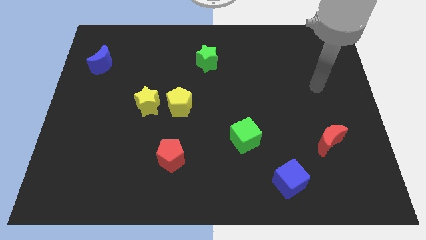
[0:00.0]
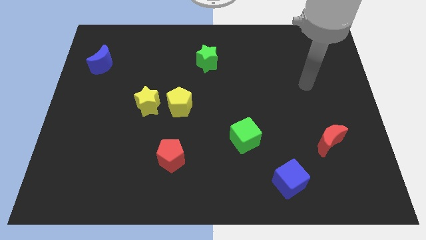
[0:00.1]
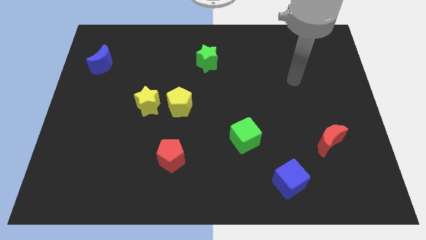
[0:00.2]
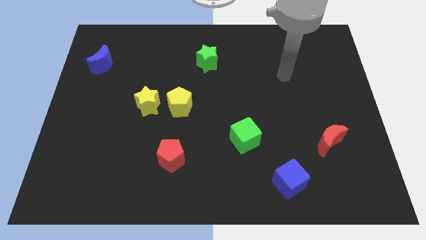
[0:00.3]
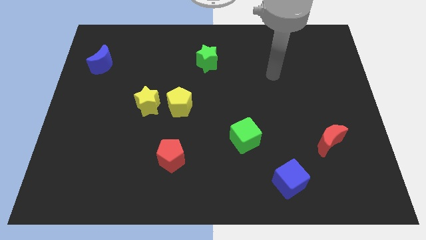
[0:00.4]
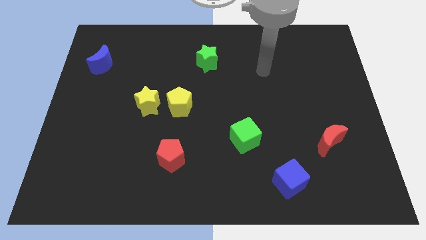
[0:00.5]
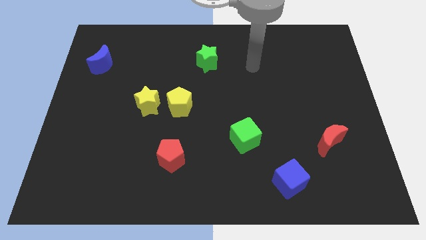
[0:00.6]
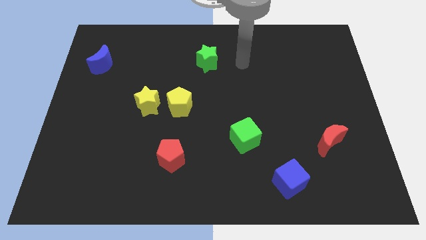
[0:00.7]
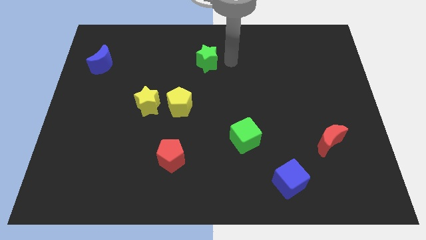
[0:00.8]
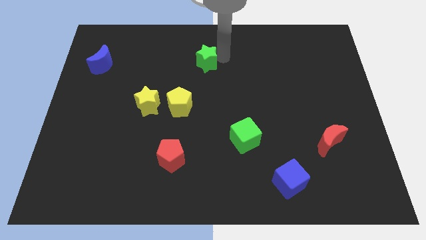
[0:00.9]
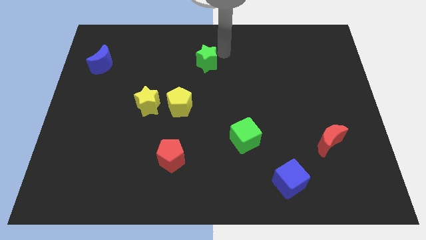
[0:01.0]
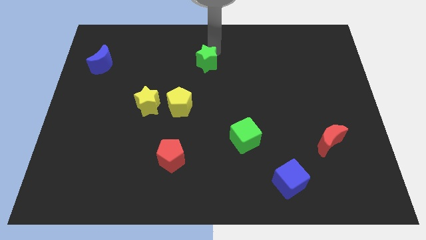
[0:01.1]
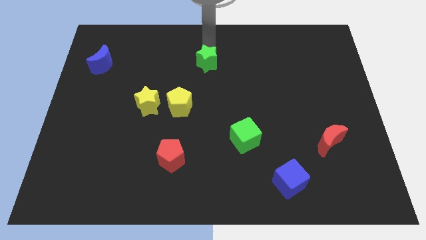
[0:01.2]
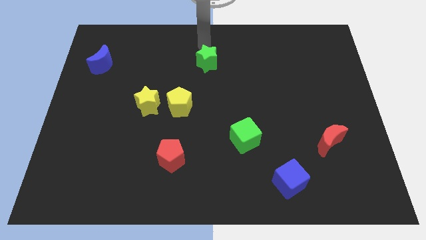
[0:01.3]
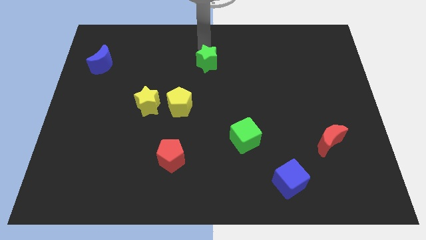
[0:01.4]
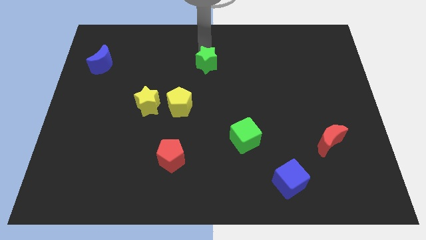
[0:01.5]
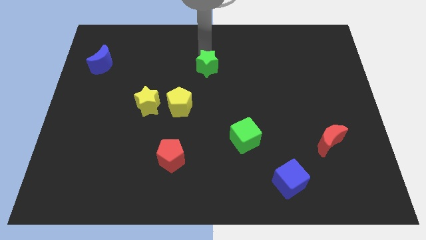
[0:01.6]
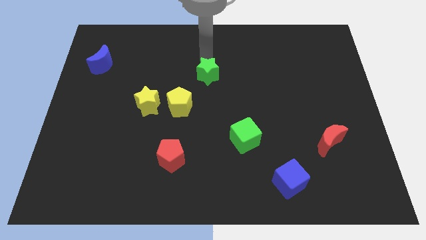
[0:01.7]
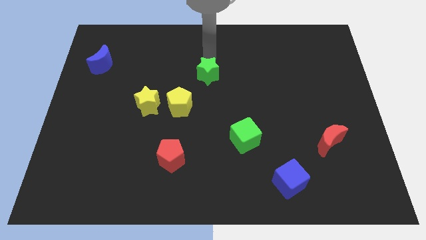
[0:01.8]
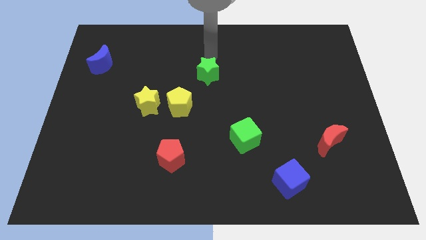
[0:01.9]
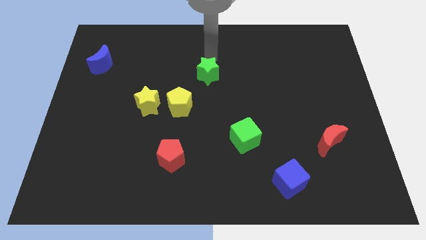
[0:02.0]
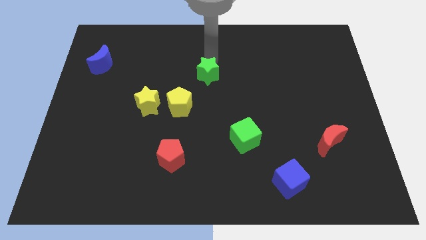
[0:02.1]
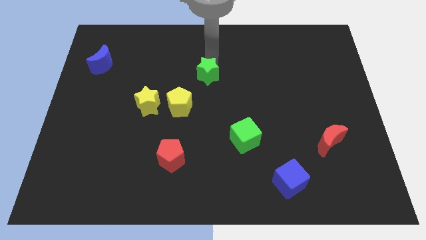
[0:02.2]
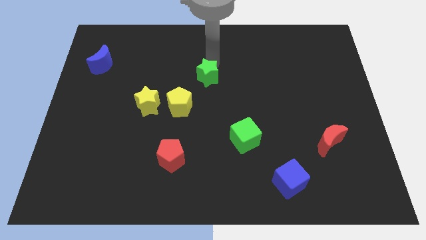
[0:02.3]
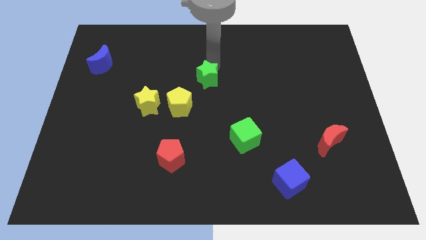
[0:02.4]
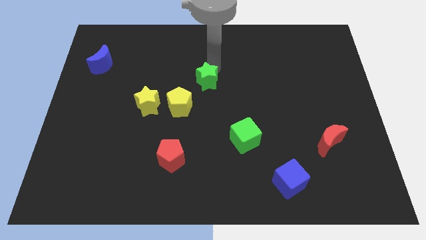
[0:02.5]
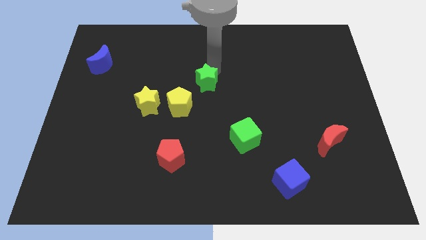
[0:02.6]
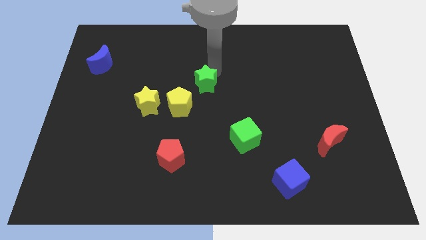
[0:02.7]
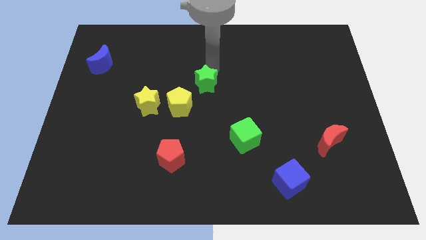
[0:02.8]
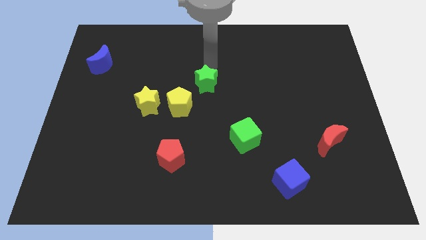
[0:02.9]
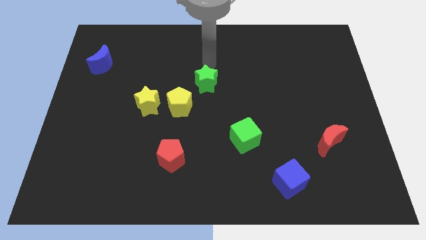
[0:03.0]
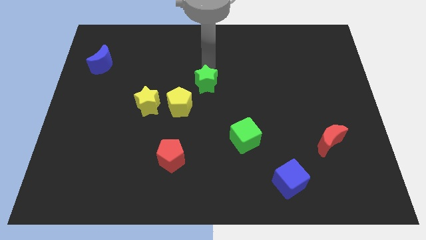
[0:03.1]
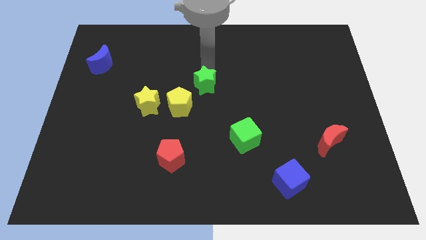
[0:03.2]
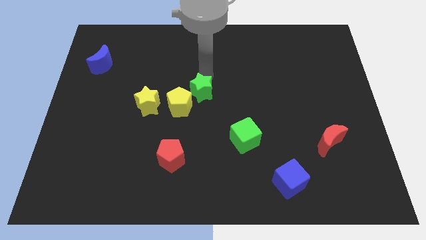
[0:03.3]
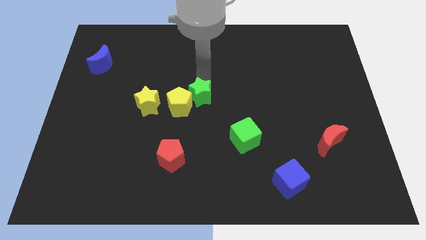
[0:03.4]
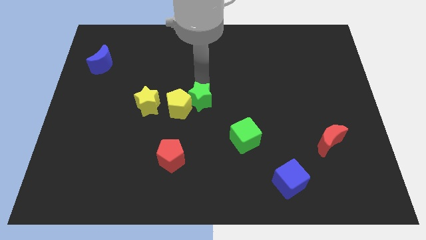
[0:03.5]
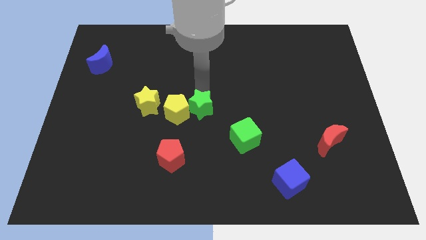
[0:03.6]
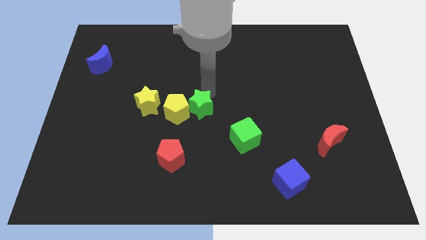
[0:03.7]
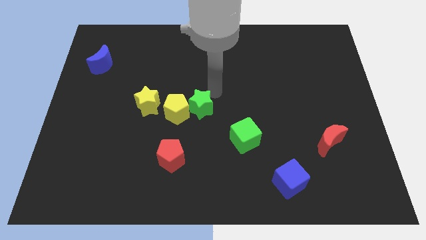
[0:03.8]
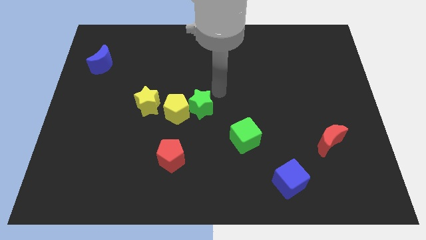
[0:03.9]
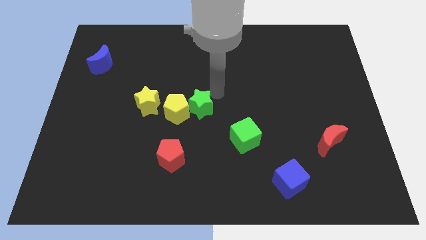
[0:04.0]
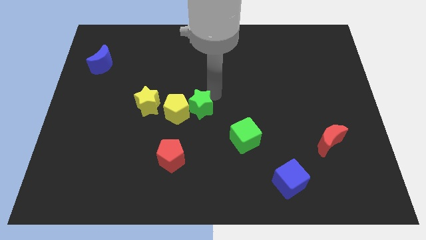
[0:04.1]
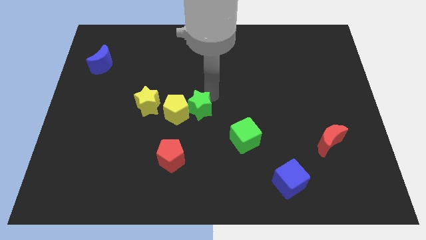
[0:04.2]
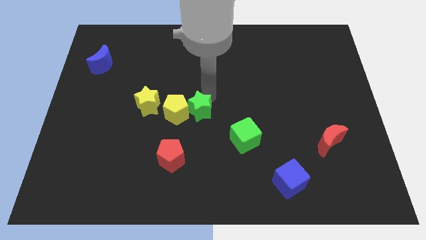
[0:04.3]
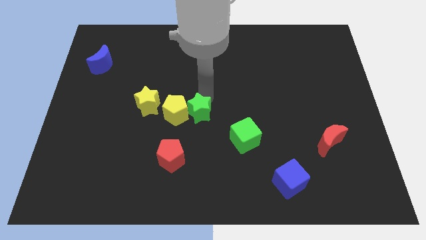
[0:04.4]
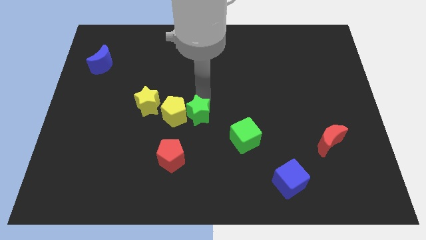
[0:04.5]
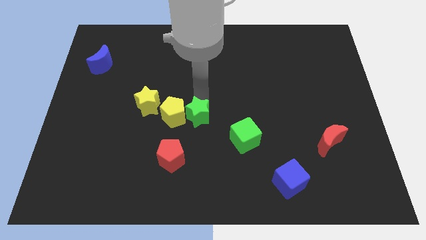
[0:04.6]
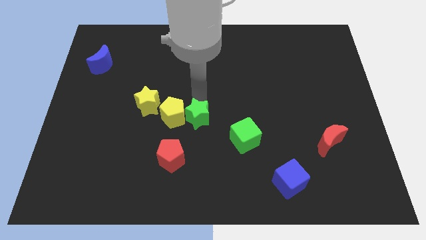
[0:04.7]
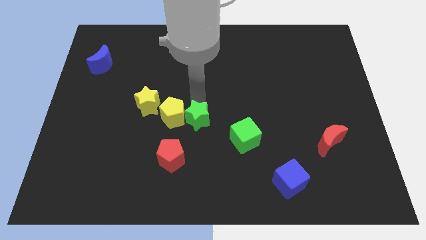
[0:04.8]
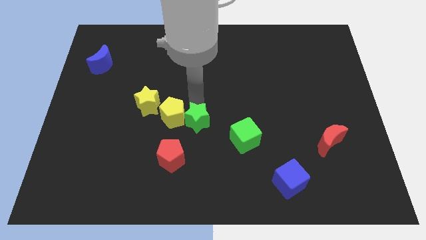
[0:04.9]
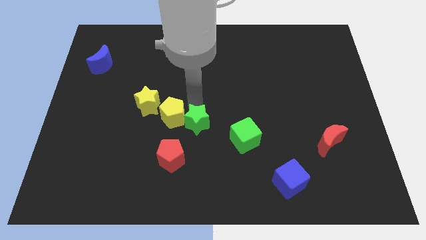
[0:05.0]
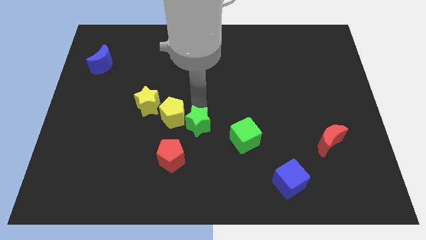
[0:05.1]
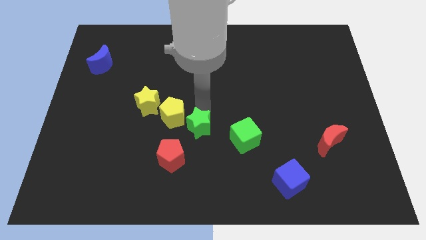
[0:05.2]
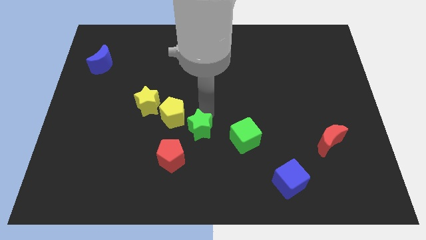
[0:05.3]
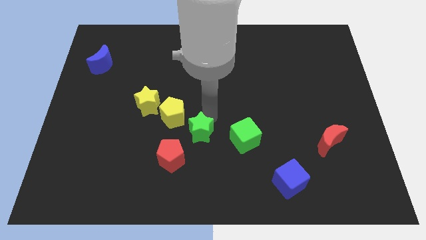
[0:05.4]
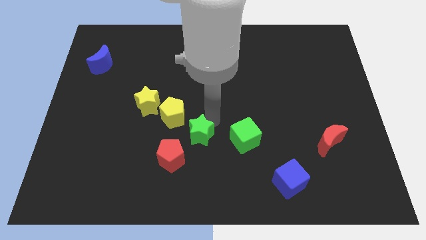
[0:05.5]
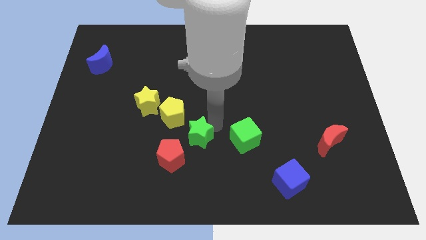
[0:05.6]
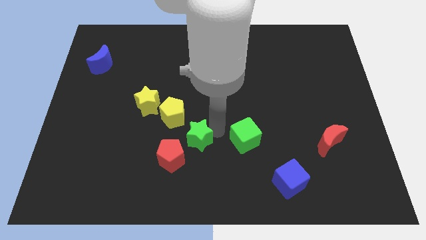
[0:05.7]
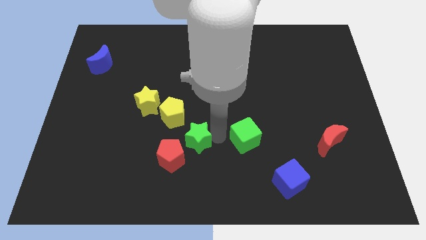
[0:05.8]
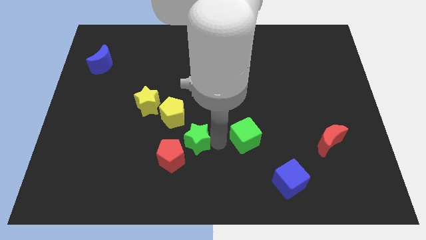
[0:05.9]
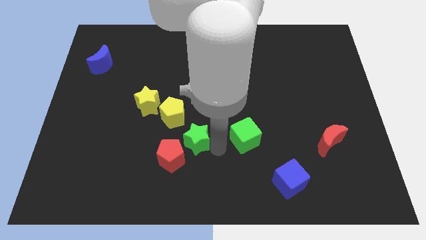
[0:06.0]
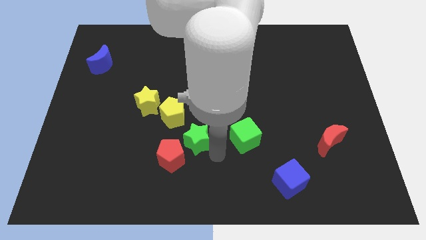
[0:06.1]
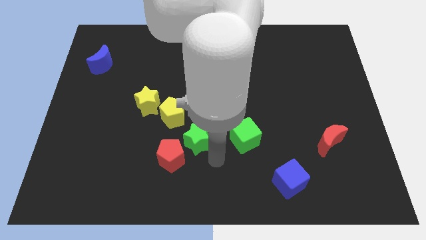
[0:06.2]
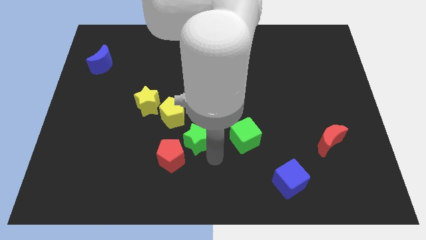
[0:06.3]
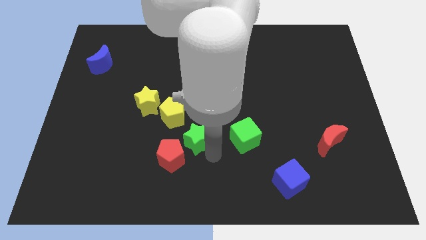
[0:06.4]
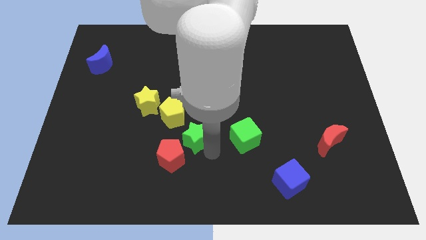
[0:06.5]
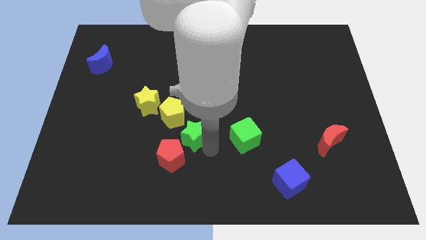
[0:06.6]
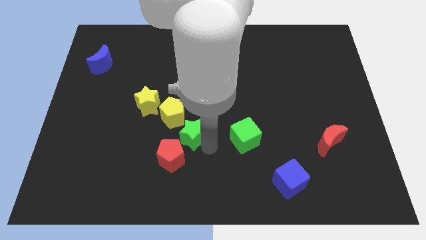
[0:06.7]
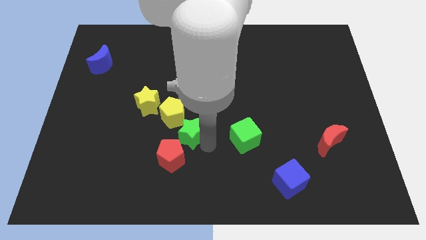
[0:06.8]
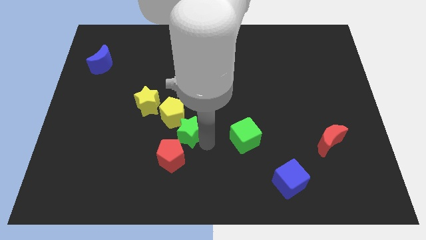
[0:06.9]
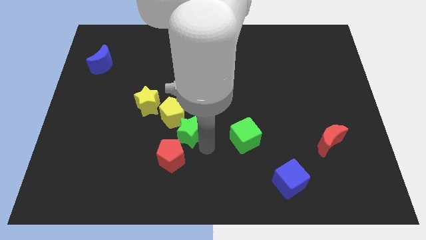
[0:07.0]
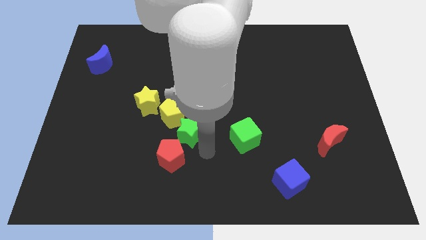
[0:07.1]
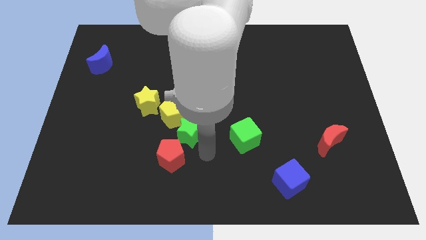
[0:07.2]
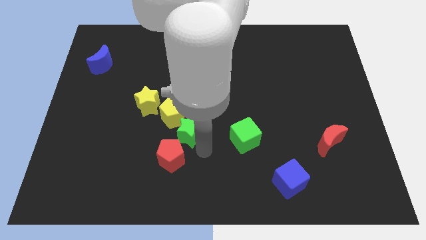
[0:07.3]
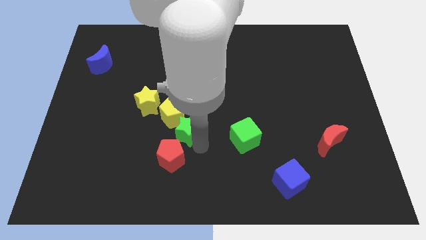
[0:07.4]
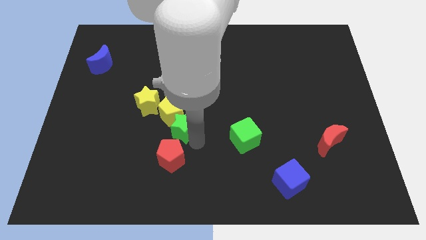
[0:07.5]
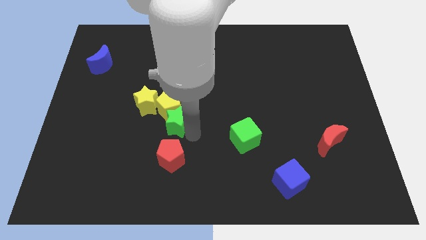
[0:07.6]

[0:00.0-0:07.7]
push the green star to the bottom left of the yellow pentagon

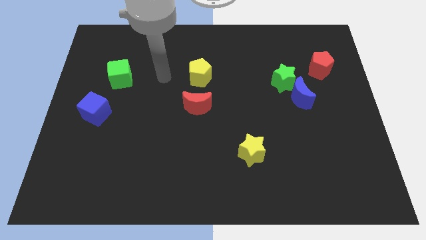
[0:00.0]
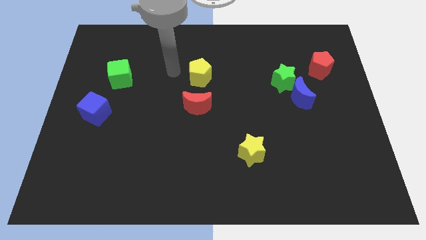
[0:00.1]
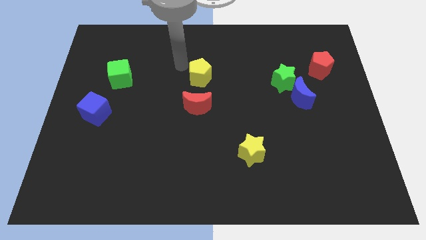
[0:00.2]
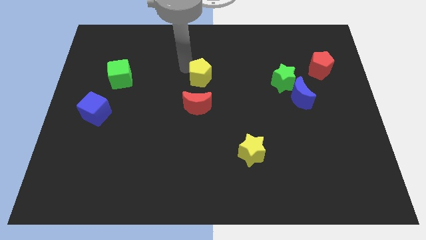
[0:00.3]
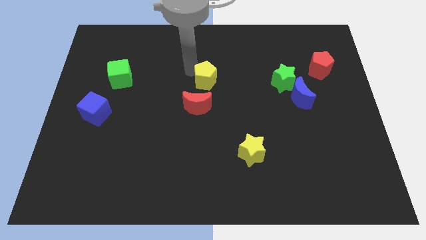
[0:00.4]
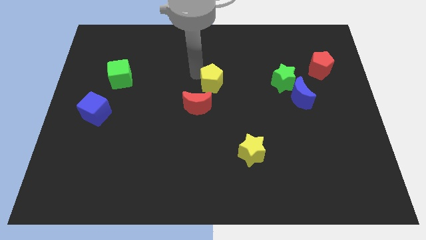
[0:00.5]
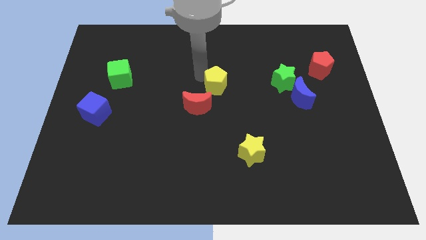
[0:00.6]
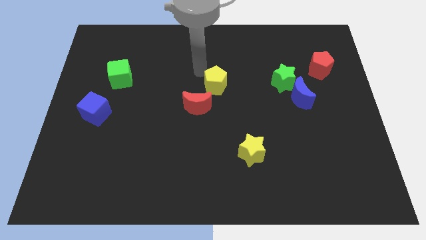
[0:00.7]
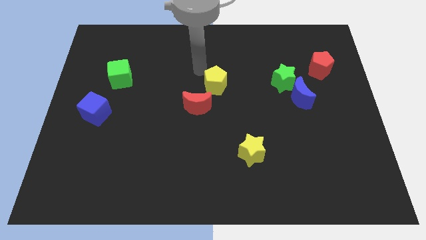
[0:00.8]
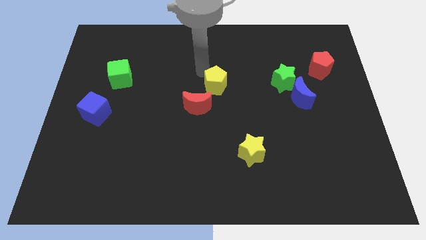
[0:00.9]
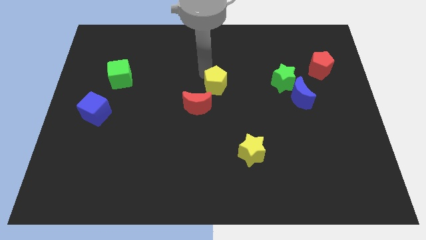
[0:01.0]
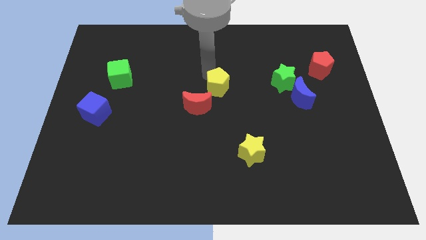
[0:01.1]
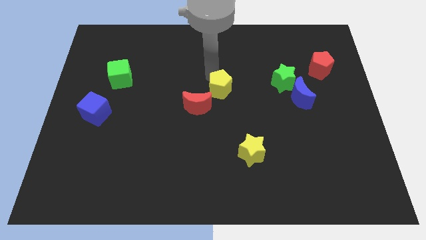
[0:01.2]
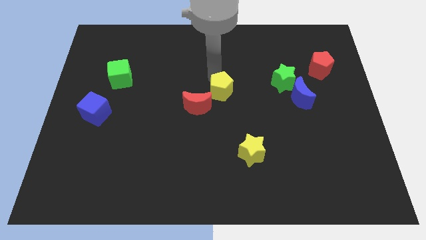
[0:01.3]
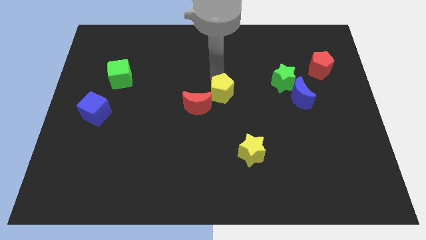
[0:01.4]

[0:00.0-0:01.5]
move the yellow pentagon to the right side of the red moon
